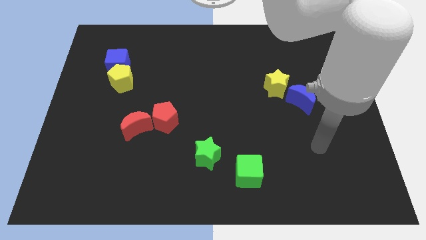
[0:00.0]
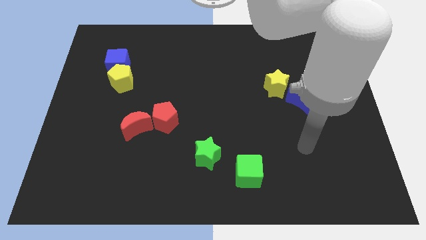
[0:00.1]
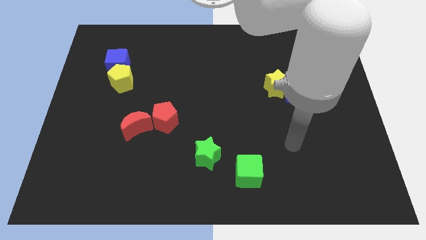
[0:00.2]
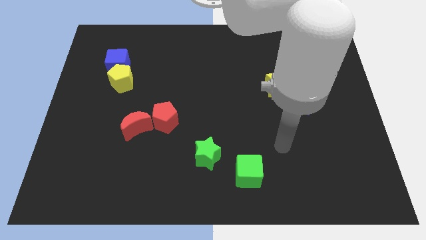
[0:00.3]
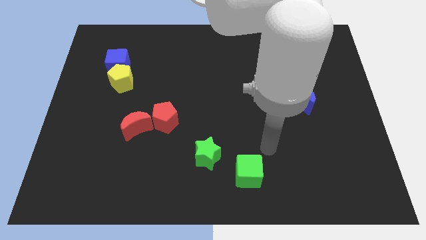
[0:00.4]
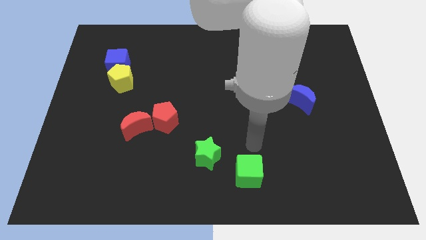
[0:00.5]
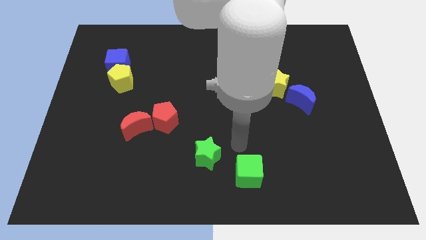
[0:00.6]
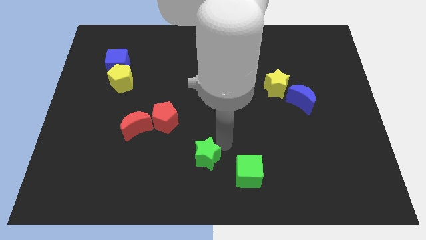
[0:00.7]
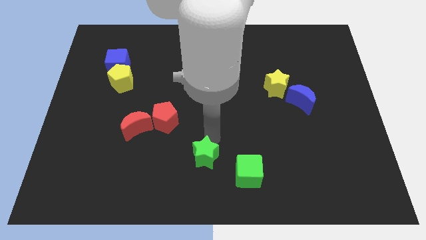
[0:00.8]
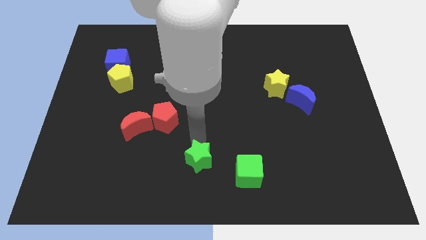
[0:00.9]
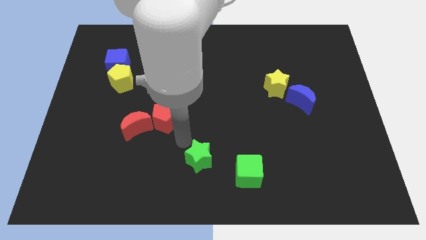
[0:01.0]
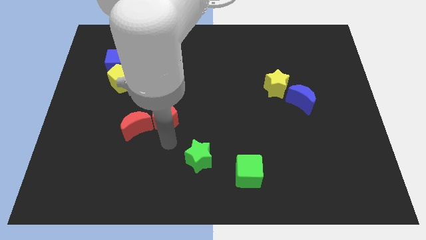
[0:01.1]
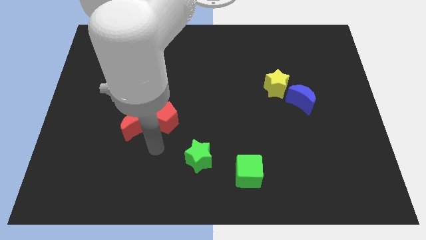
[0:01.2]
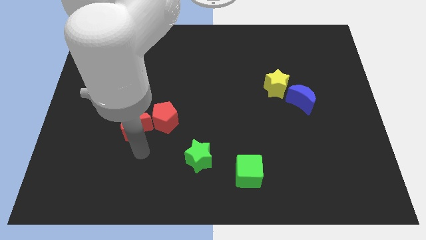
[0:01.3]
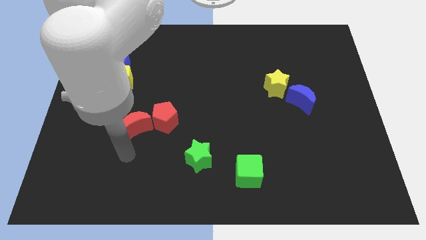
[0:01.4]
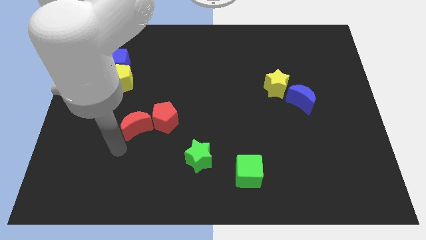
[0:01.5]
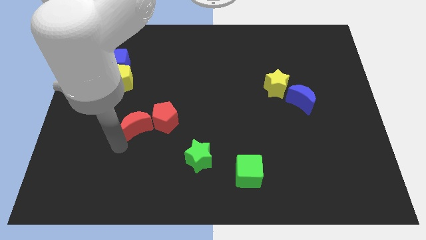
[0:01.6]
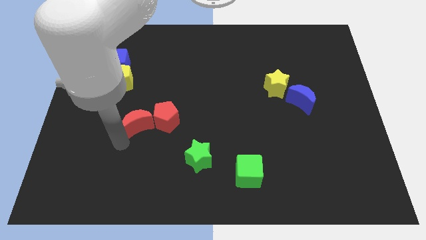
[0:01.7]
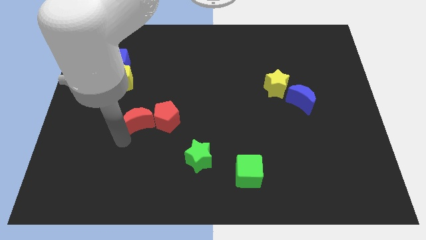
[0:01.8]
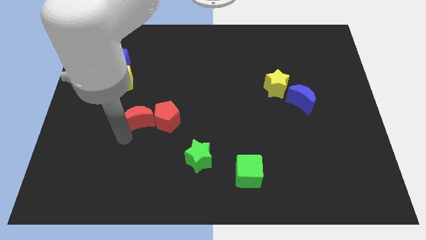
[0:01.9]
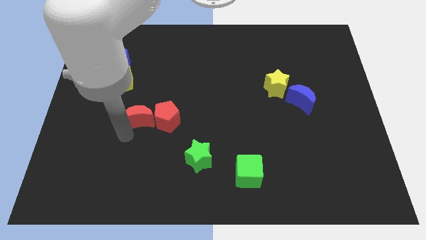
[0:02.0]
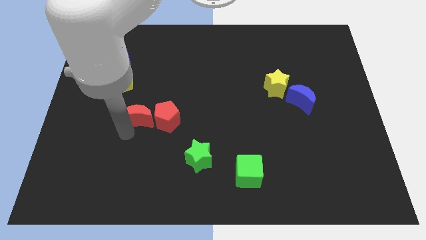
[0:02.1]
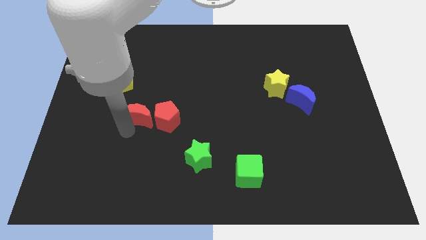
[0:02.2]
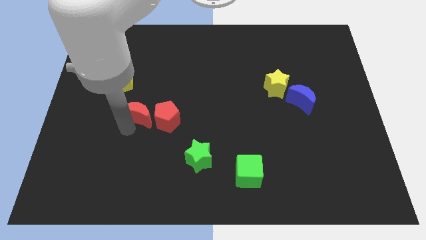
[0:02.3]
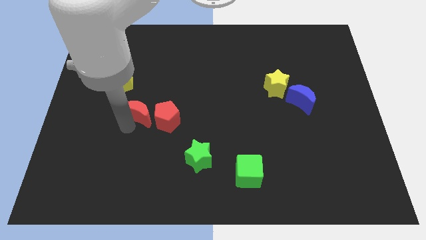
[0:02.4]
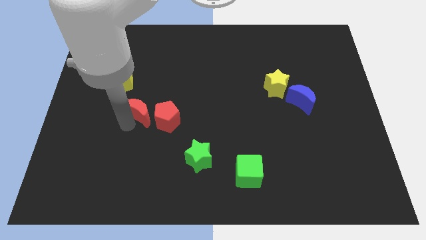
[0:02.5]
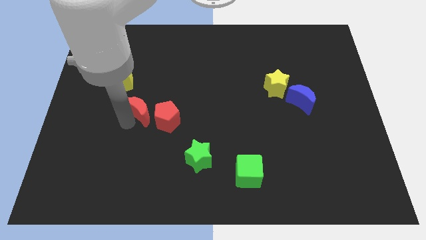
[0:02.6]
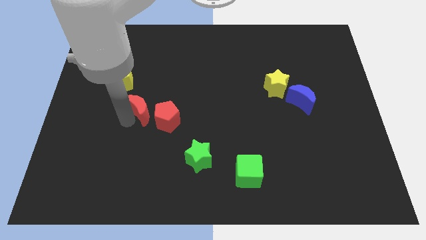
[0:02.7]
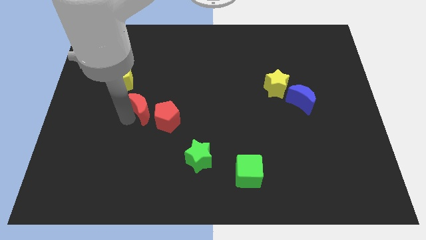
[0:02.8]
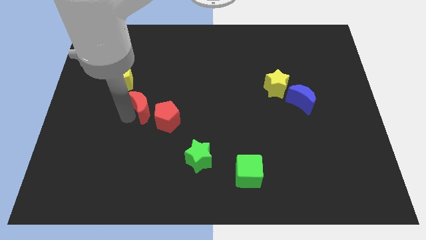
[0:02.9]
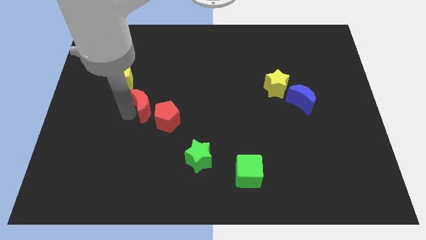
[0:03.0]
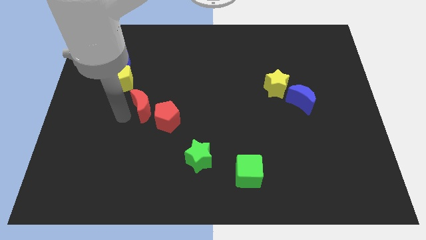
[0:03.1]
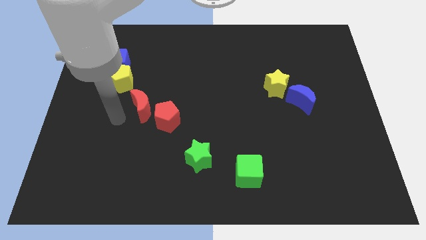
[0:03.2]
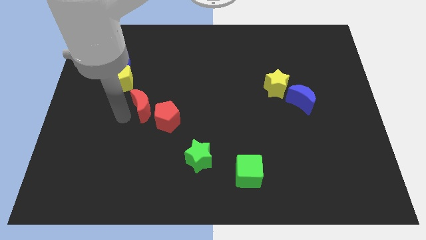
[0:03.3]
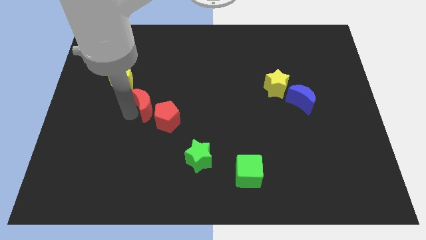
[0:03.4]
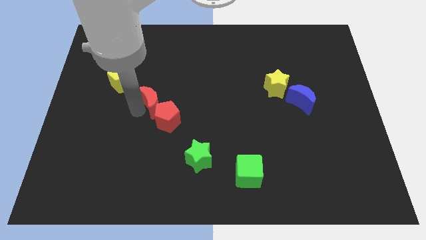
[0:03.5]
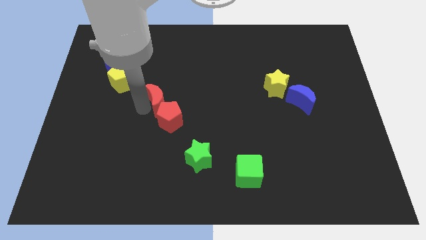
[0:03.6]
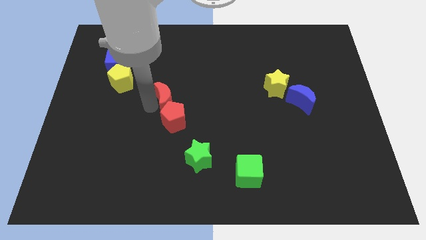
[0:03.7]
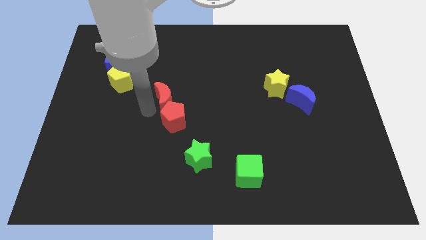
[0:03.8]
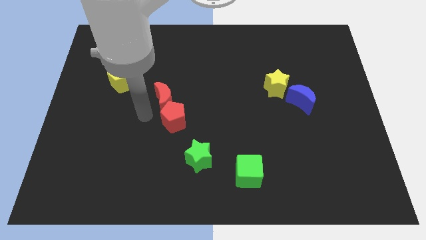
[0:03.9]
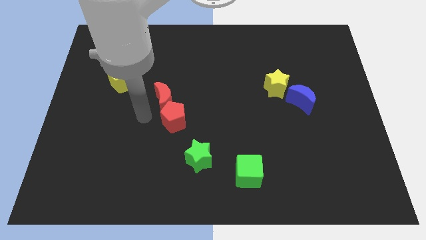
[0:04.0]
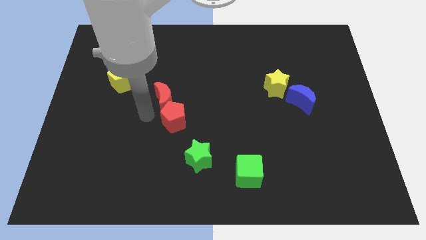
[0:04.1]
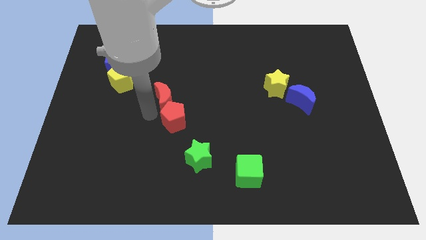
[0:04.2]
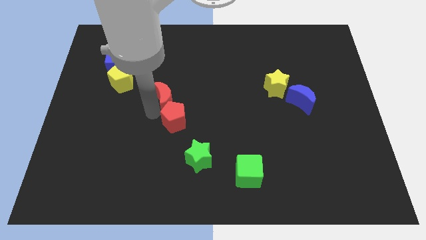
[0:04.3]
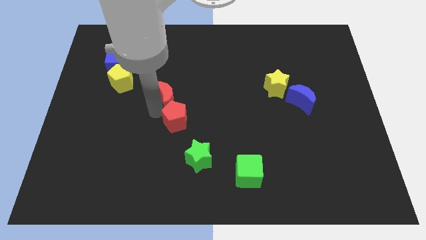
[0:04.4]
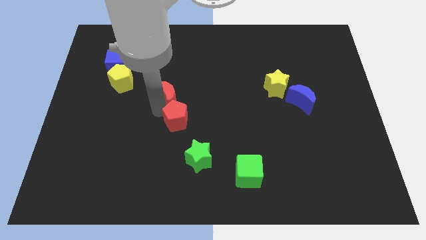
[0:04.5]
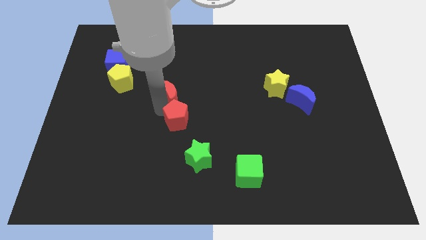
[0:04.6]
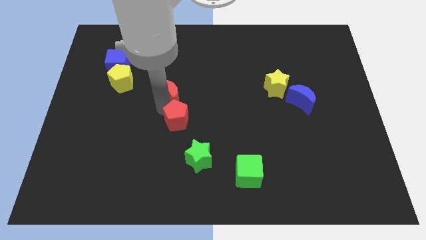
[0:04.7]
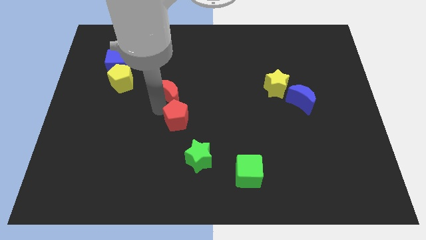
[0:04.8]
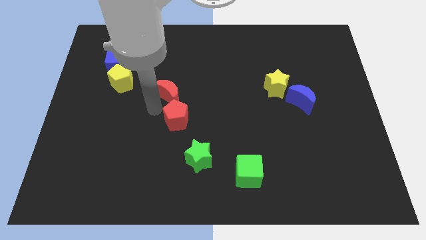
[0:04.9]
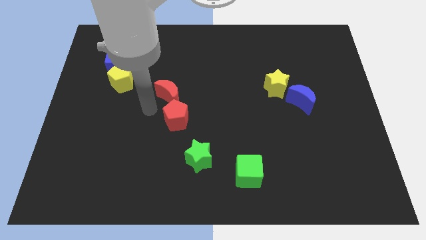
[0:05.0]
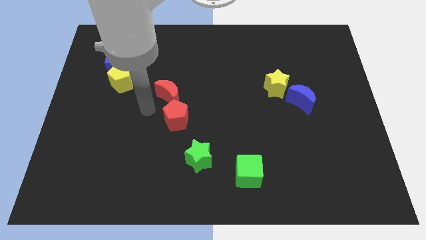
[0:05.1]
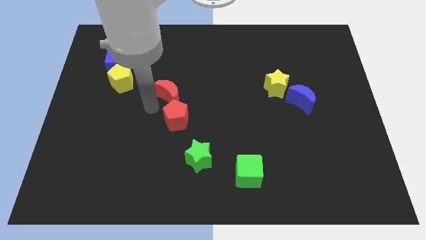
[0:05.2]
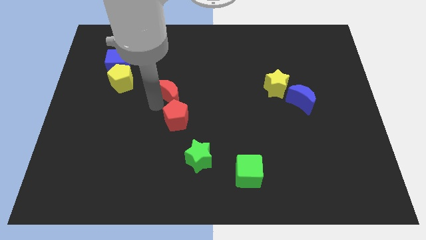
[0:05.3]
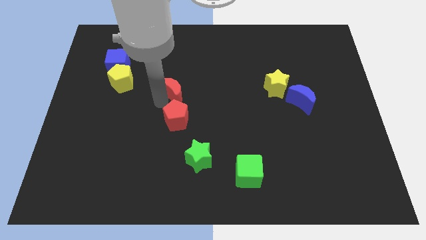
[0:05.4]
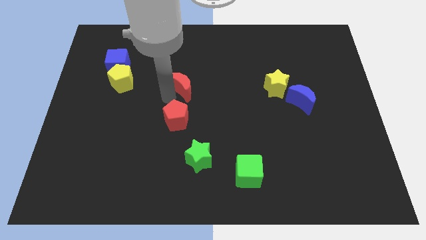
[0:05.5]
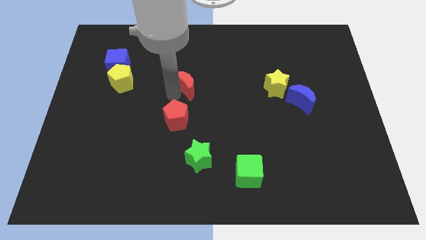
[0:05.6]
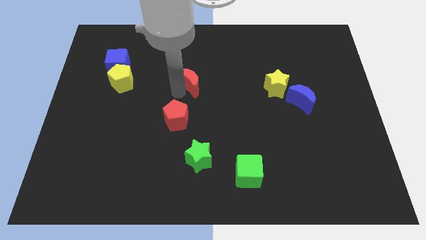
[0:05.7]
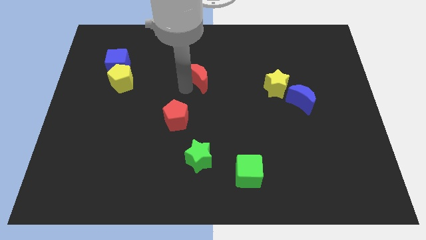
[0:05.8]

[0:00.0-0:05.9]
push the red moon upwards and then right

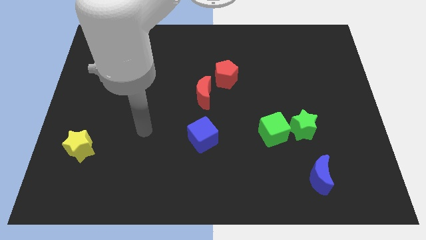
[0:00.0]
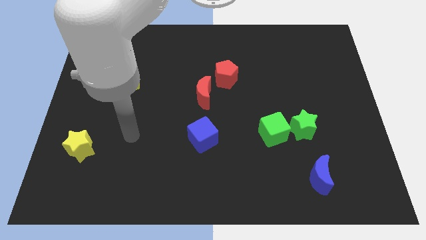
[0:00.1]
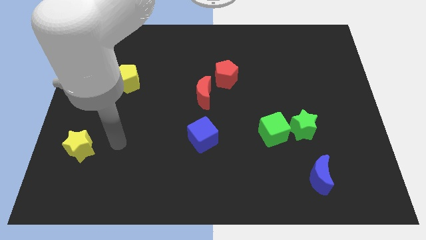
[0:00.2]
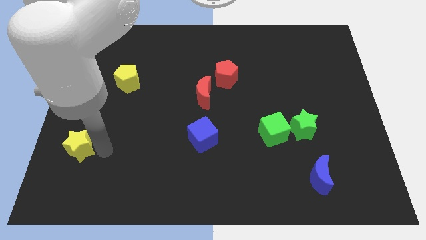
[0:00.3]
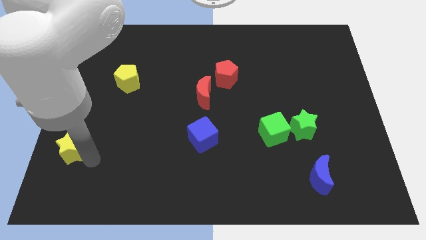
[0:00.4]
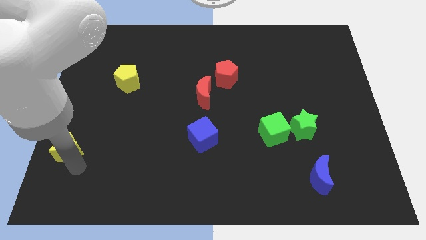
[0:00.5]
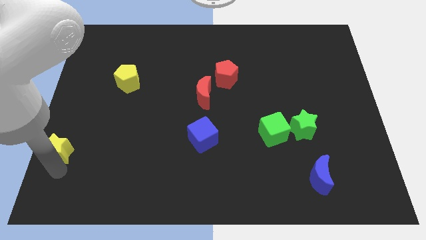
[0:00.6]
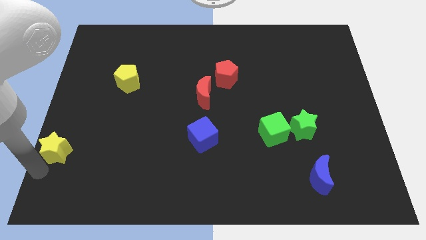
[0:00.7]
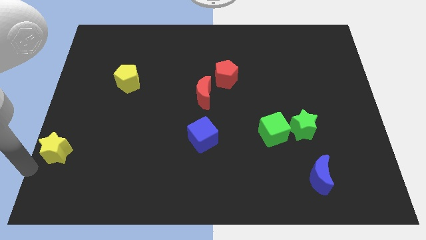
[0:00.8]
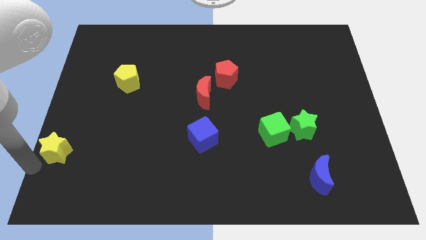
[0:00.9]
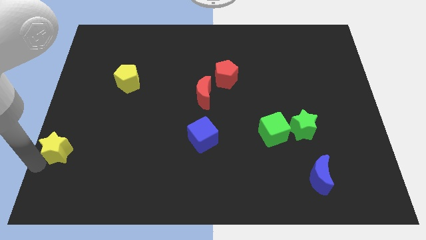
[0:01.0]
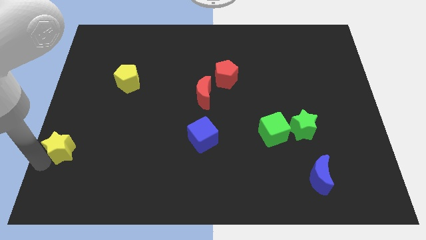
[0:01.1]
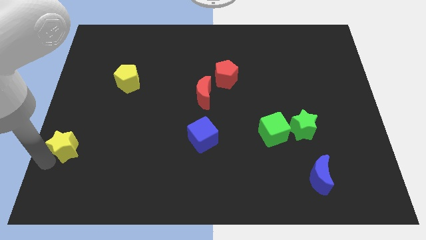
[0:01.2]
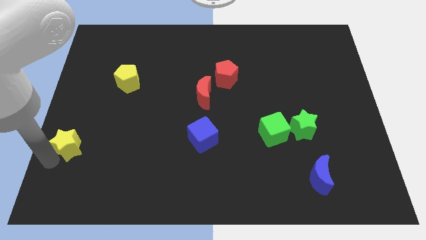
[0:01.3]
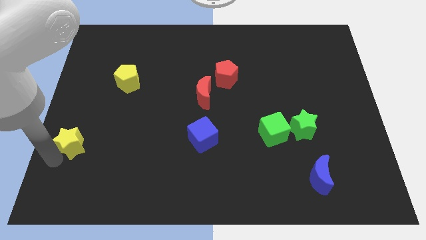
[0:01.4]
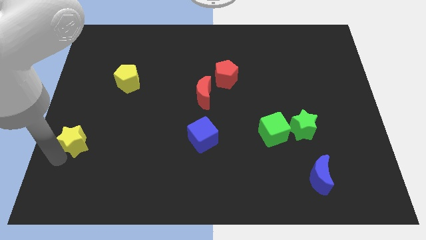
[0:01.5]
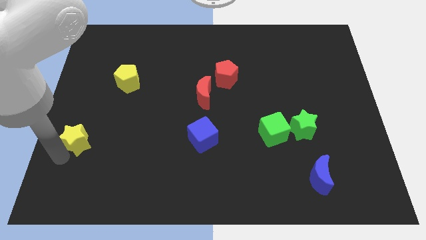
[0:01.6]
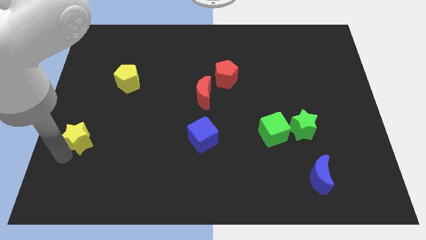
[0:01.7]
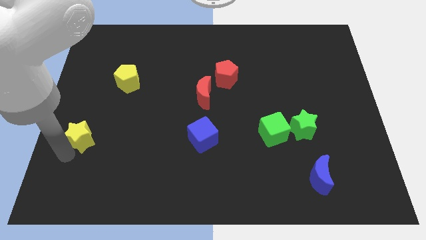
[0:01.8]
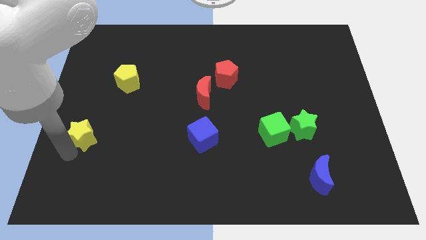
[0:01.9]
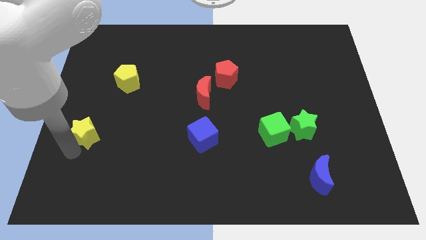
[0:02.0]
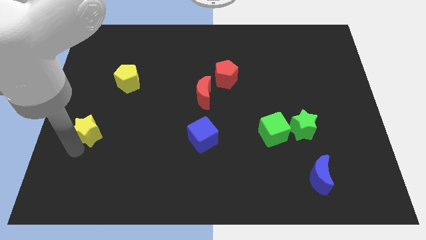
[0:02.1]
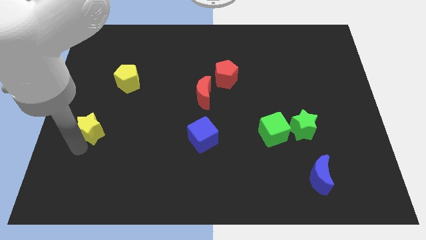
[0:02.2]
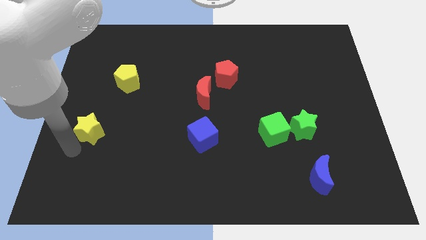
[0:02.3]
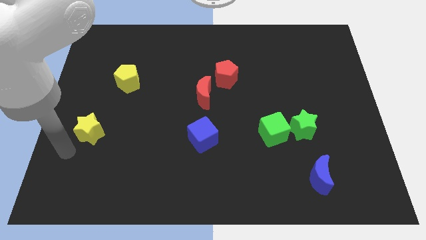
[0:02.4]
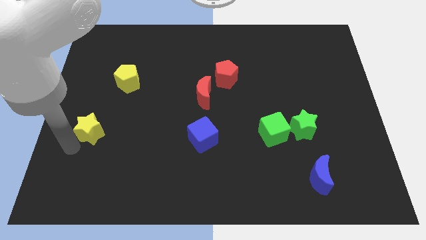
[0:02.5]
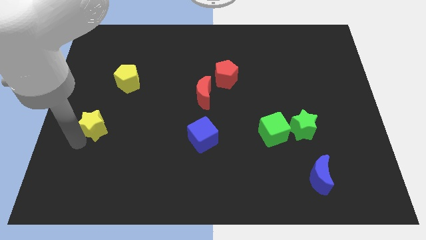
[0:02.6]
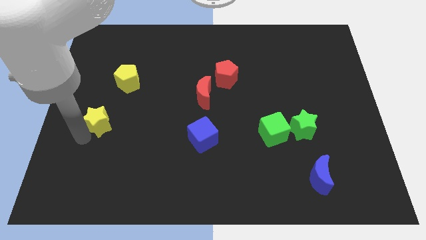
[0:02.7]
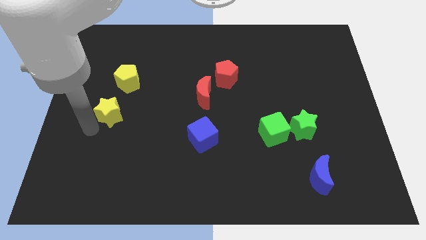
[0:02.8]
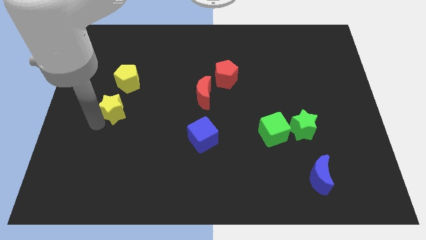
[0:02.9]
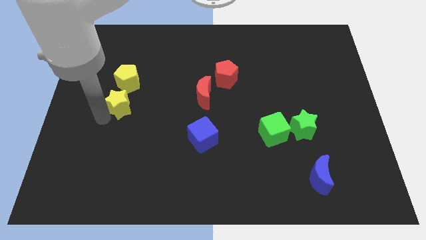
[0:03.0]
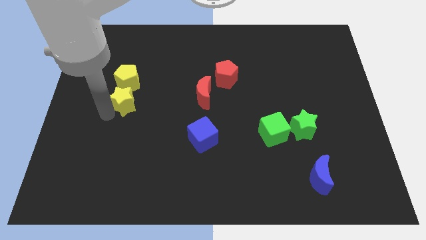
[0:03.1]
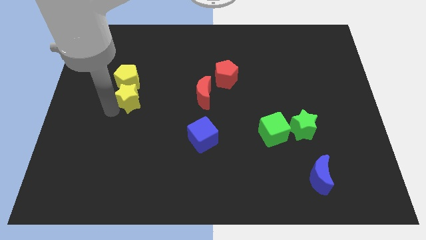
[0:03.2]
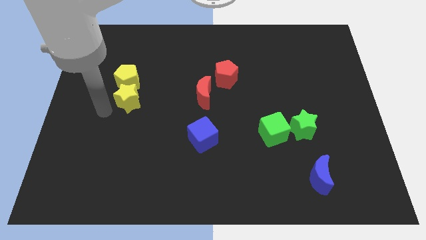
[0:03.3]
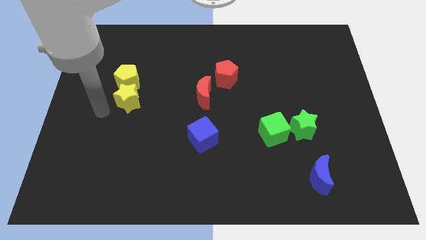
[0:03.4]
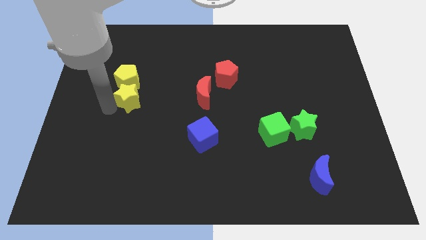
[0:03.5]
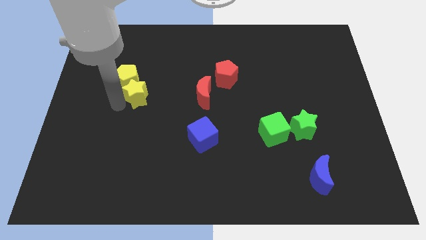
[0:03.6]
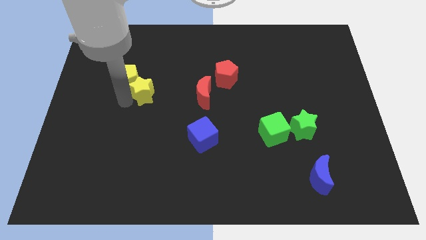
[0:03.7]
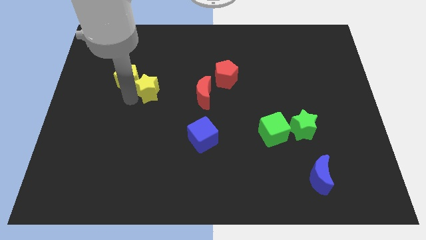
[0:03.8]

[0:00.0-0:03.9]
push the yellow star diagonally upwards and right
